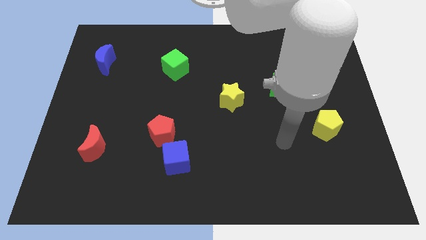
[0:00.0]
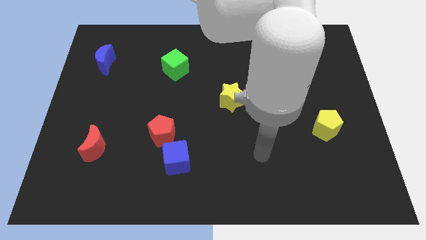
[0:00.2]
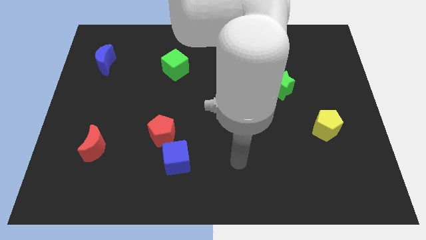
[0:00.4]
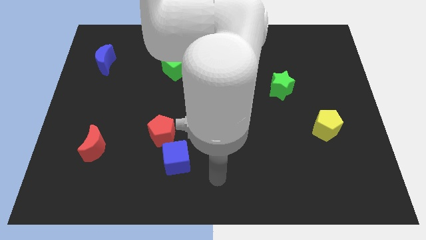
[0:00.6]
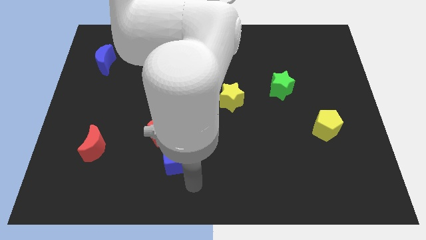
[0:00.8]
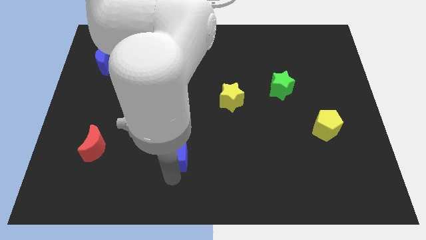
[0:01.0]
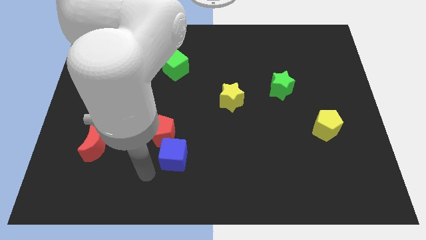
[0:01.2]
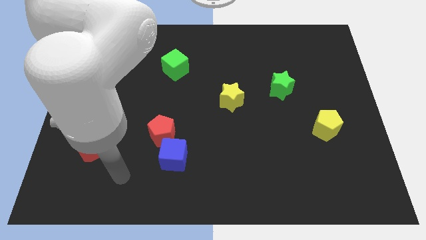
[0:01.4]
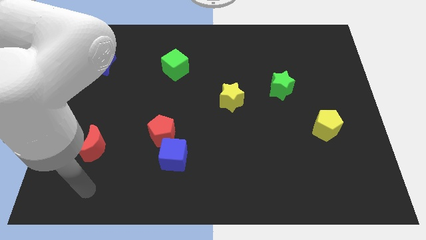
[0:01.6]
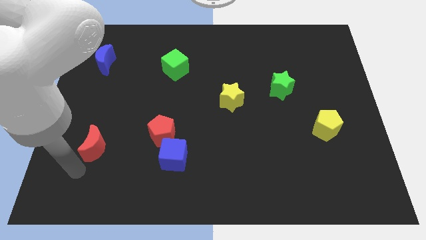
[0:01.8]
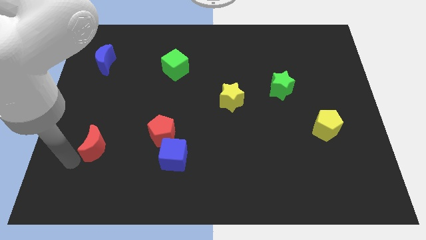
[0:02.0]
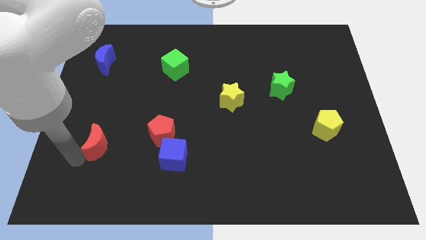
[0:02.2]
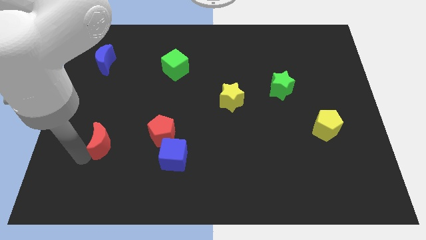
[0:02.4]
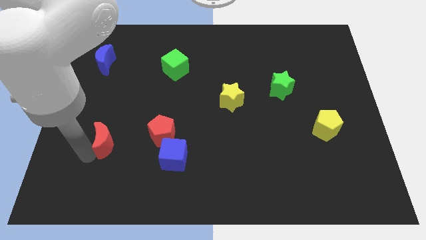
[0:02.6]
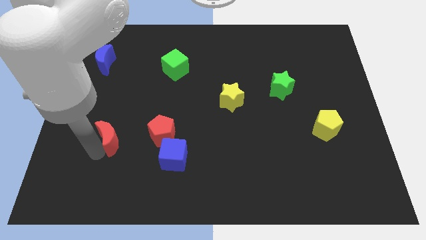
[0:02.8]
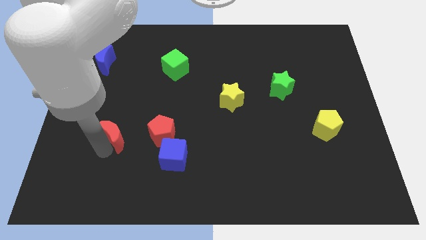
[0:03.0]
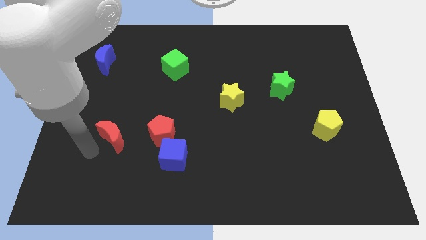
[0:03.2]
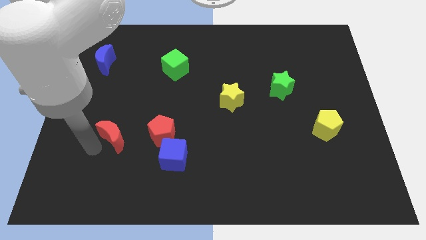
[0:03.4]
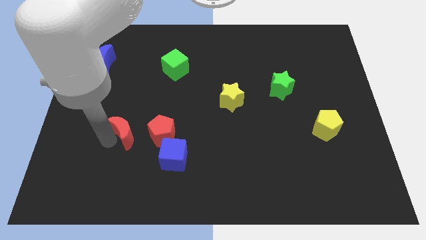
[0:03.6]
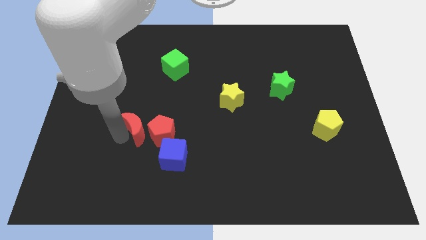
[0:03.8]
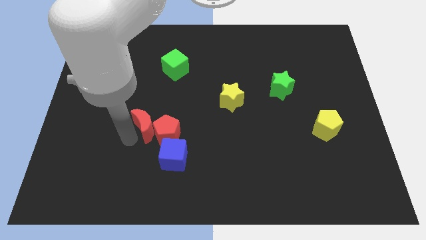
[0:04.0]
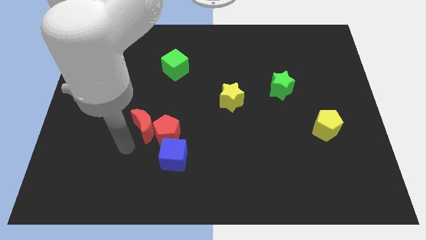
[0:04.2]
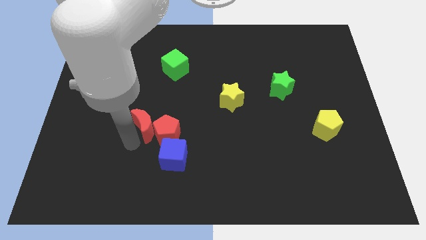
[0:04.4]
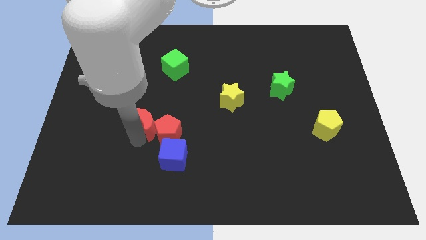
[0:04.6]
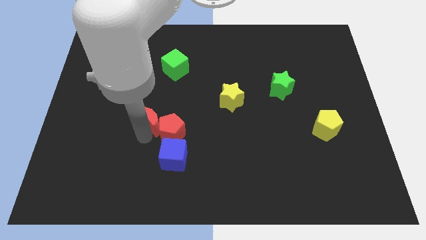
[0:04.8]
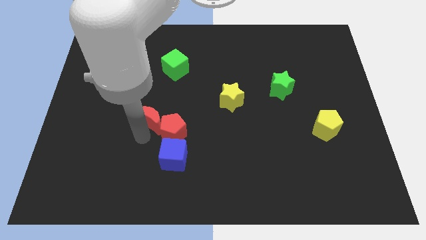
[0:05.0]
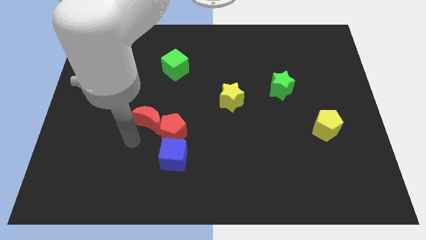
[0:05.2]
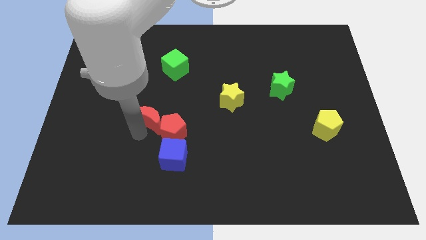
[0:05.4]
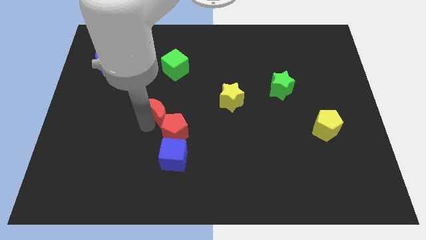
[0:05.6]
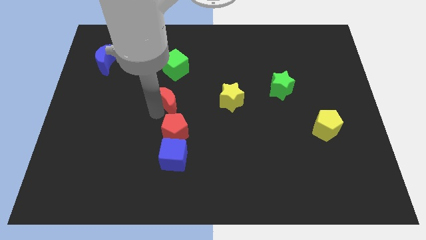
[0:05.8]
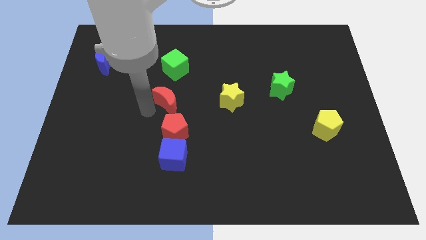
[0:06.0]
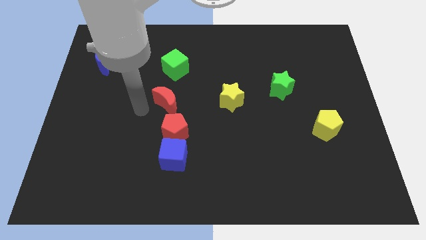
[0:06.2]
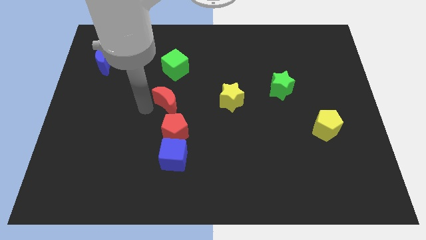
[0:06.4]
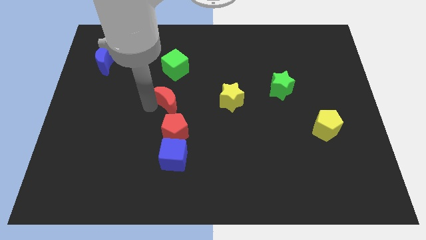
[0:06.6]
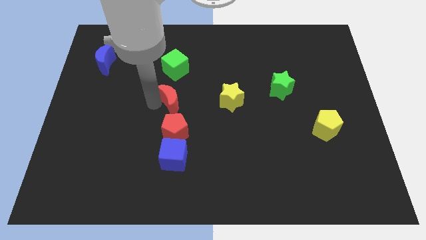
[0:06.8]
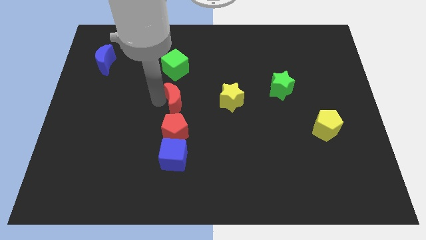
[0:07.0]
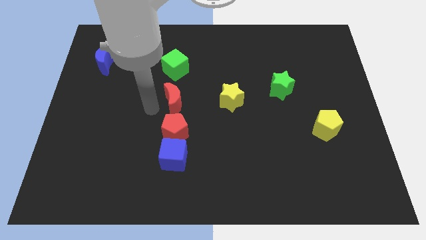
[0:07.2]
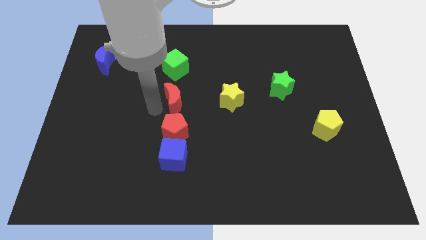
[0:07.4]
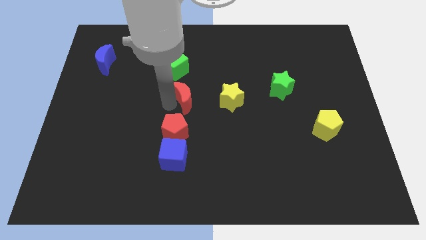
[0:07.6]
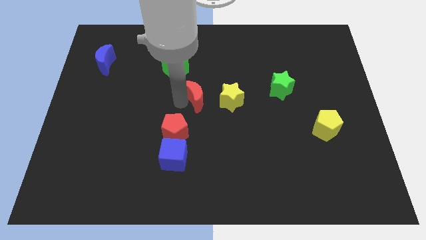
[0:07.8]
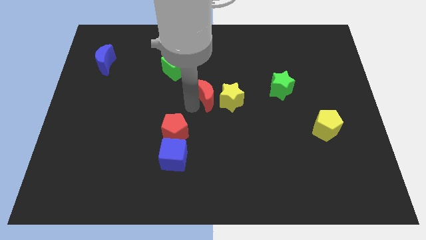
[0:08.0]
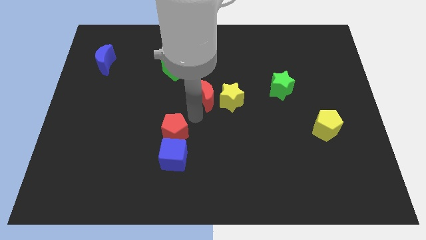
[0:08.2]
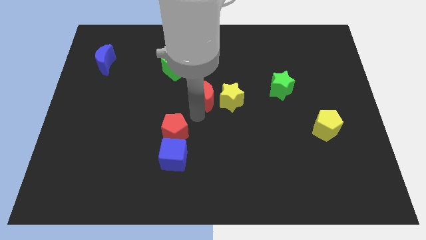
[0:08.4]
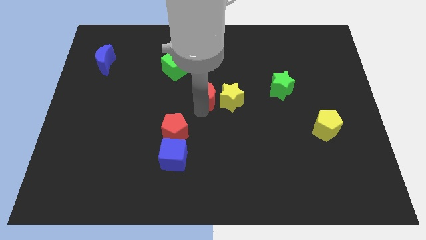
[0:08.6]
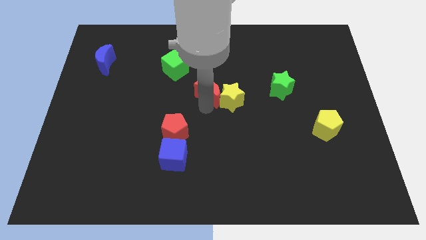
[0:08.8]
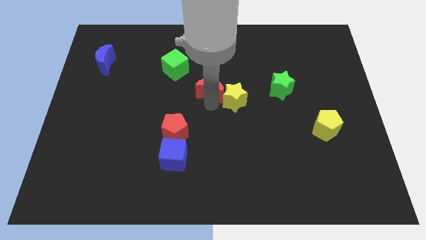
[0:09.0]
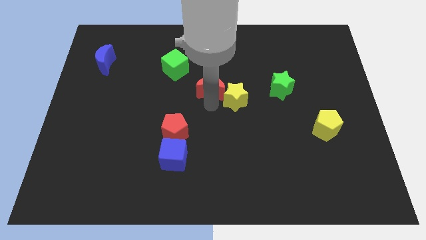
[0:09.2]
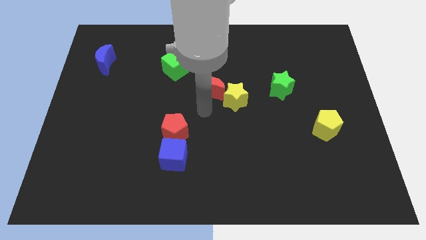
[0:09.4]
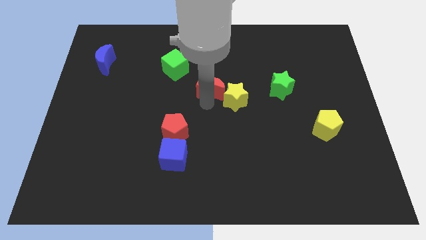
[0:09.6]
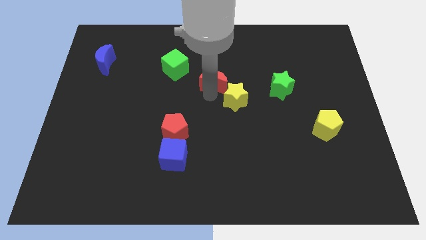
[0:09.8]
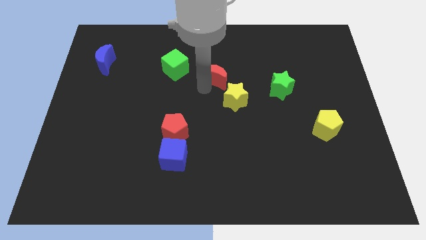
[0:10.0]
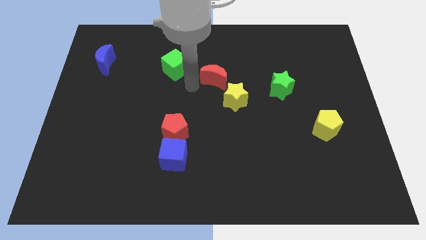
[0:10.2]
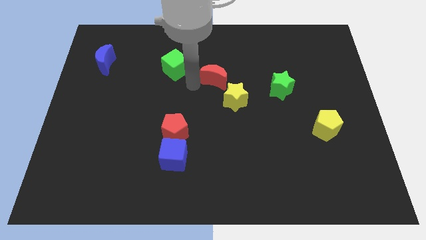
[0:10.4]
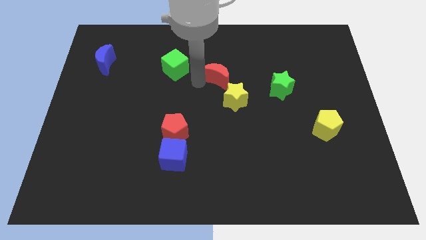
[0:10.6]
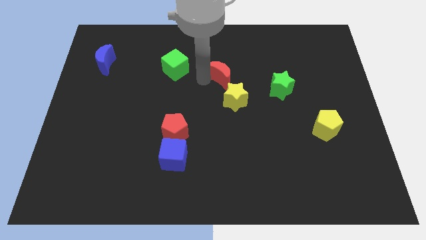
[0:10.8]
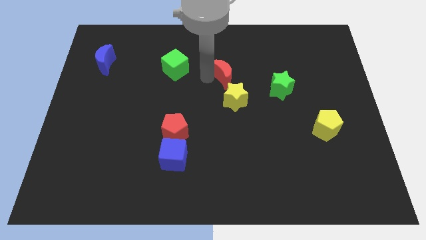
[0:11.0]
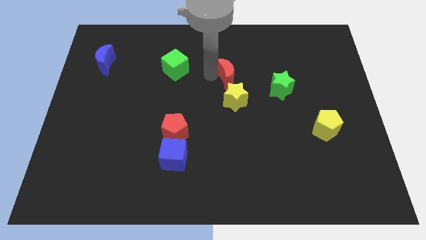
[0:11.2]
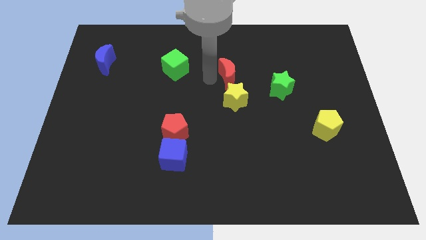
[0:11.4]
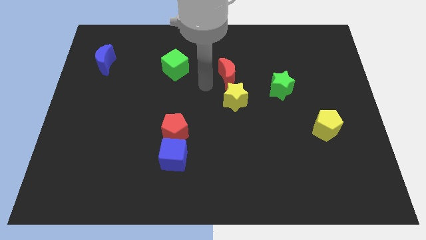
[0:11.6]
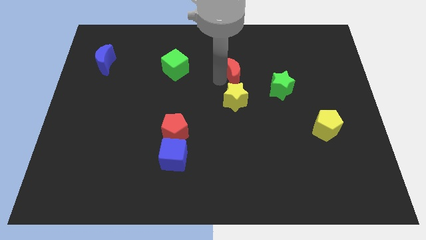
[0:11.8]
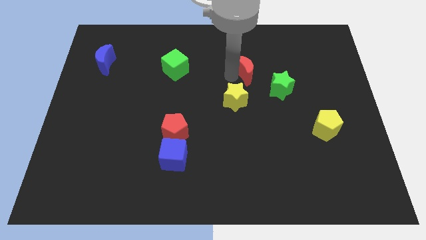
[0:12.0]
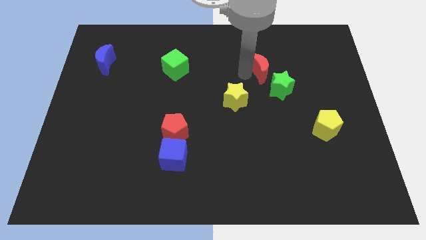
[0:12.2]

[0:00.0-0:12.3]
push the red moon to the top side of the green star

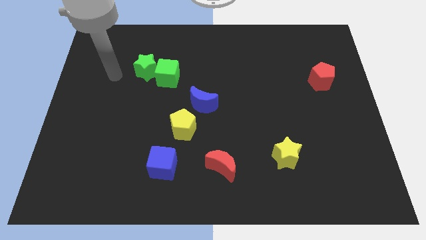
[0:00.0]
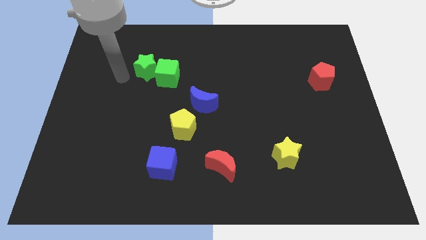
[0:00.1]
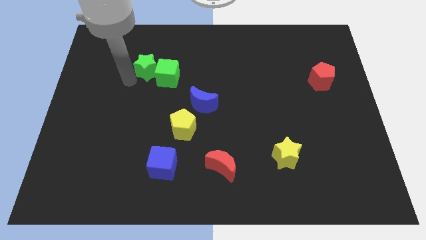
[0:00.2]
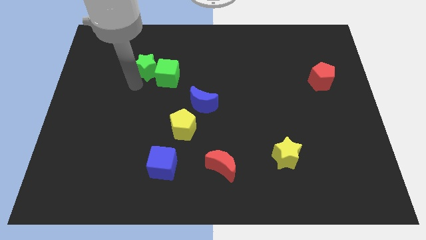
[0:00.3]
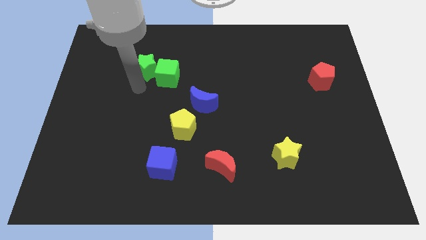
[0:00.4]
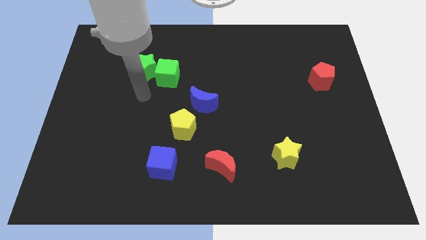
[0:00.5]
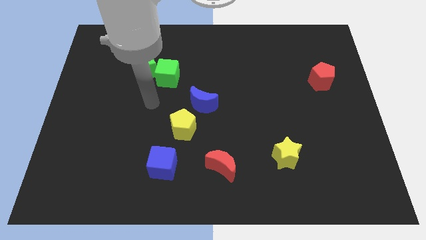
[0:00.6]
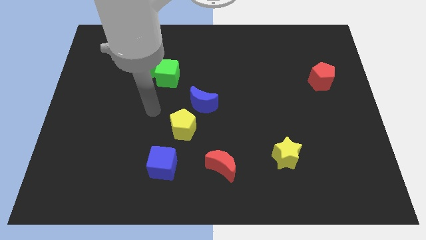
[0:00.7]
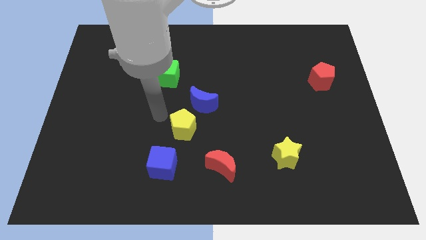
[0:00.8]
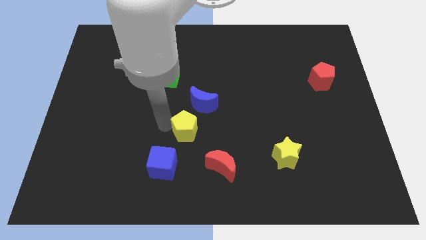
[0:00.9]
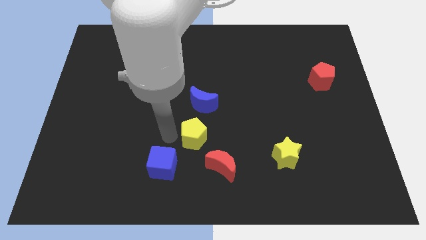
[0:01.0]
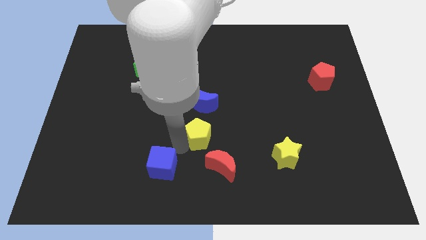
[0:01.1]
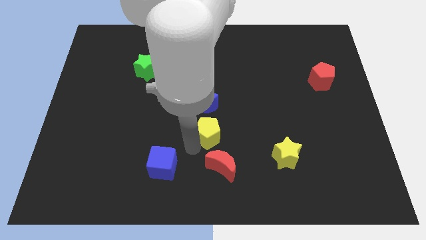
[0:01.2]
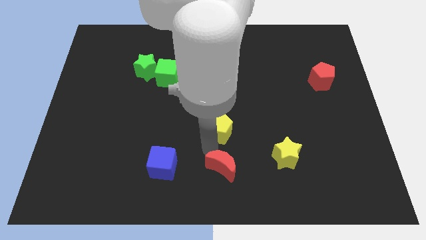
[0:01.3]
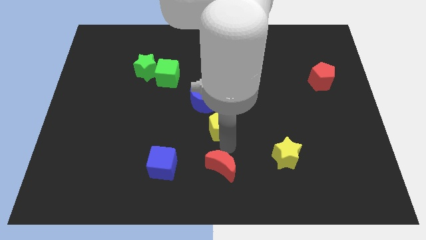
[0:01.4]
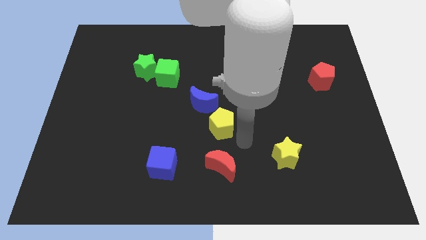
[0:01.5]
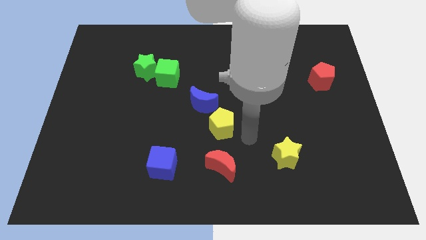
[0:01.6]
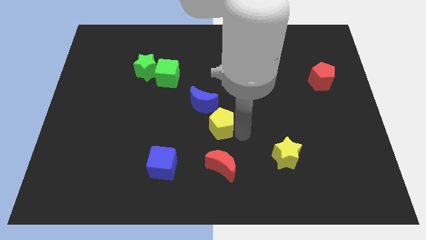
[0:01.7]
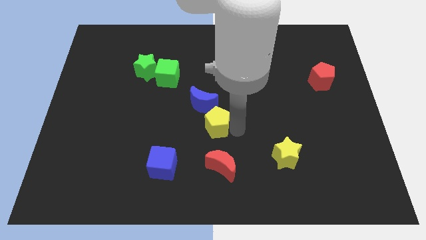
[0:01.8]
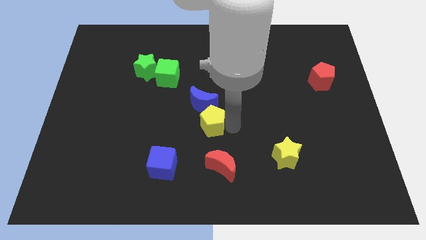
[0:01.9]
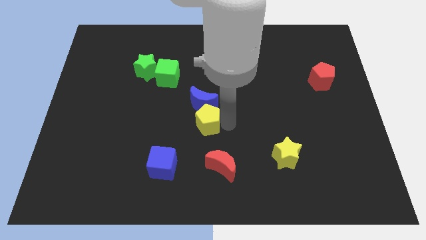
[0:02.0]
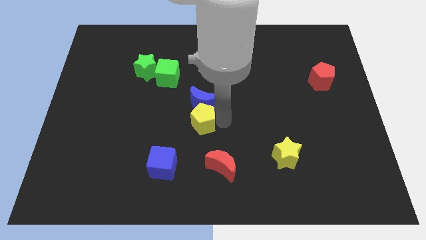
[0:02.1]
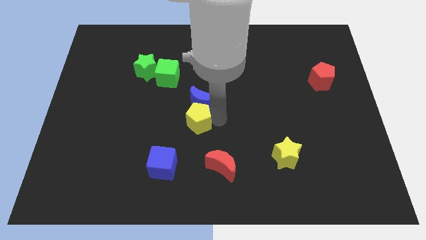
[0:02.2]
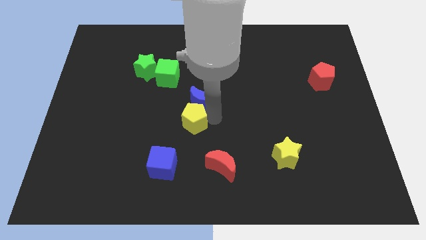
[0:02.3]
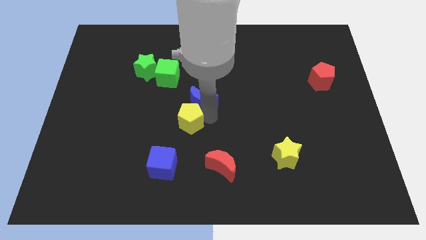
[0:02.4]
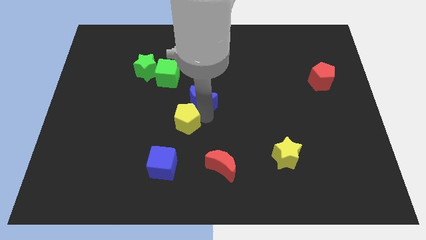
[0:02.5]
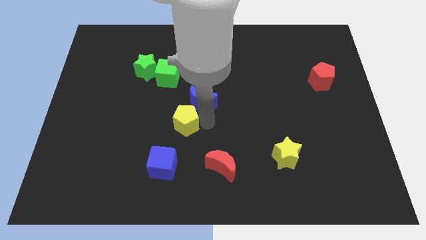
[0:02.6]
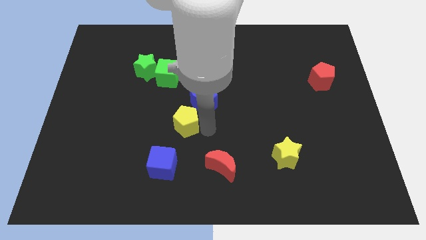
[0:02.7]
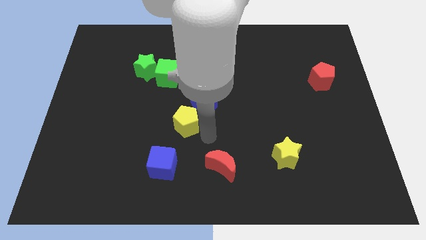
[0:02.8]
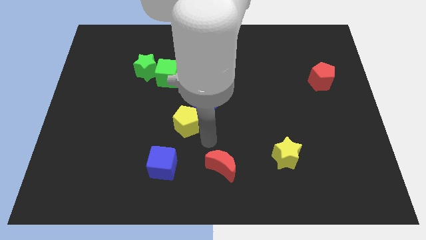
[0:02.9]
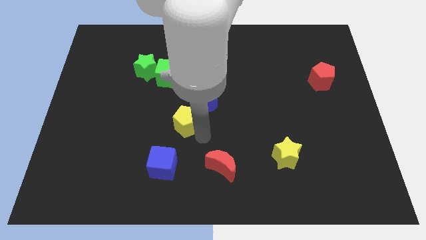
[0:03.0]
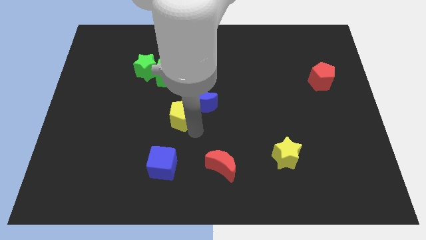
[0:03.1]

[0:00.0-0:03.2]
move the yellow pentagon to the left of the blue moon
